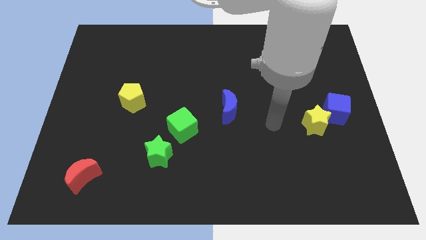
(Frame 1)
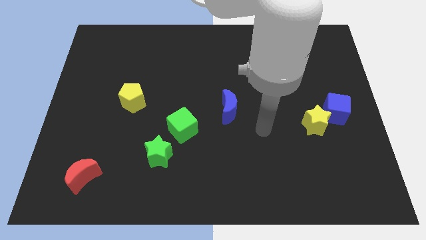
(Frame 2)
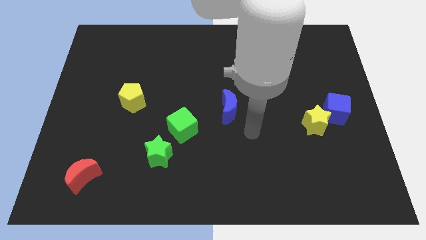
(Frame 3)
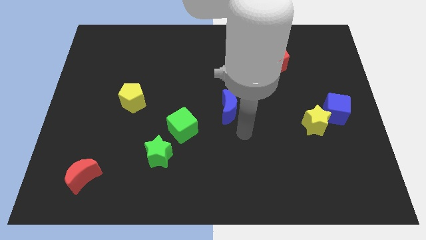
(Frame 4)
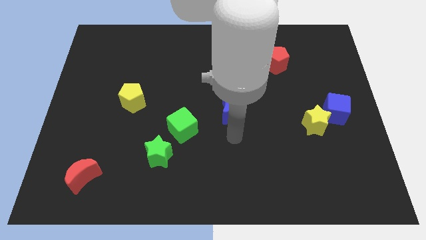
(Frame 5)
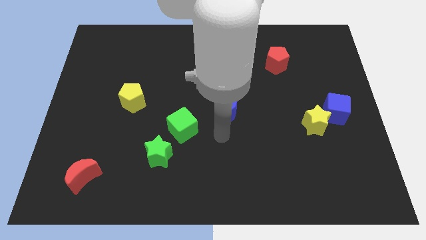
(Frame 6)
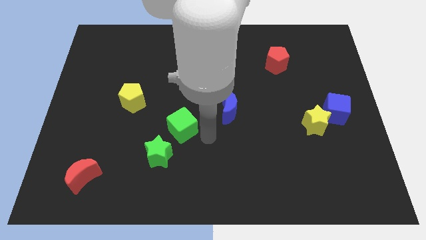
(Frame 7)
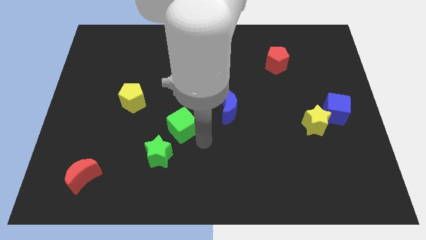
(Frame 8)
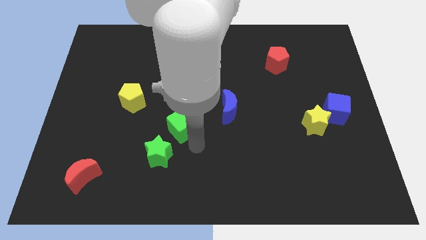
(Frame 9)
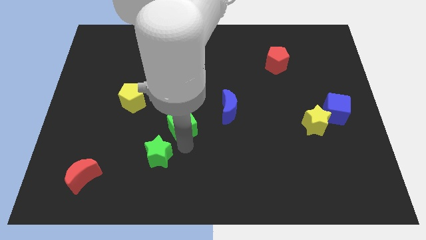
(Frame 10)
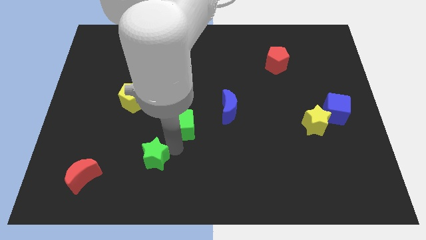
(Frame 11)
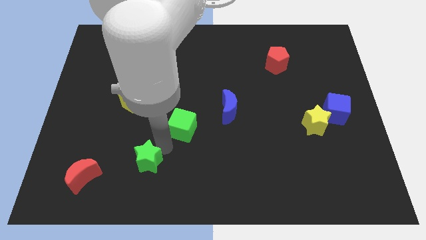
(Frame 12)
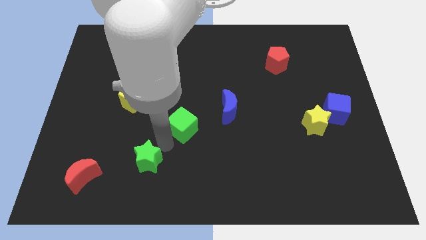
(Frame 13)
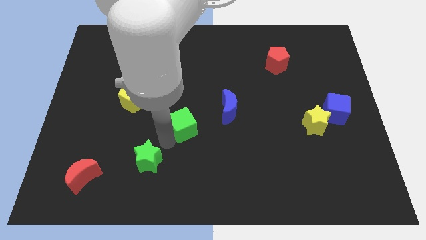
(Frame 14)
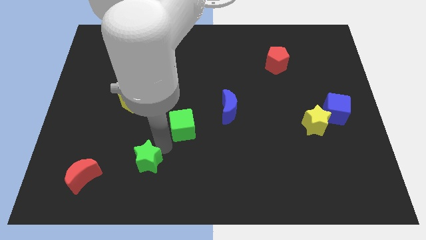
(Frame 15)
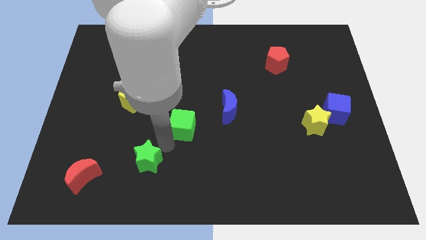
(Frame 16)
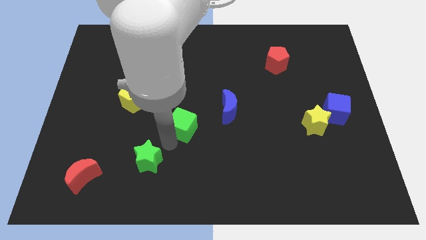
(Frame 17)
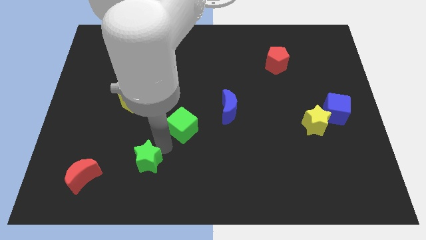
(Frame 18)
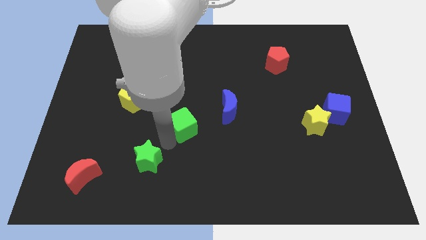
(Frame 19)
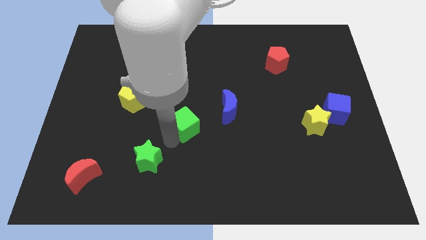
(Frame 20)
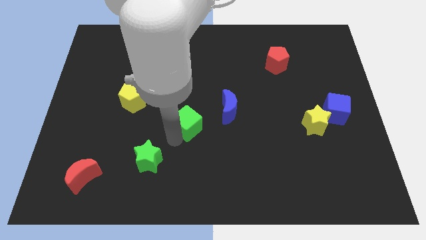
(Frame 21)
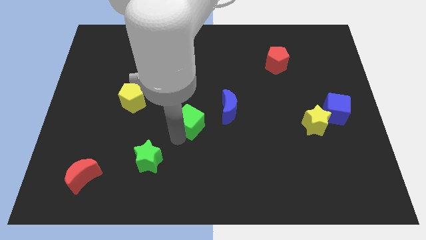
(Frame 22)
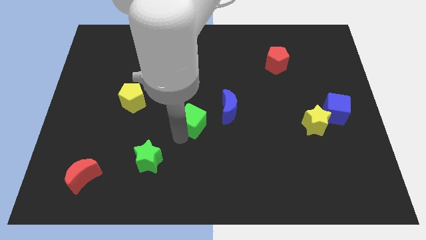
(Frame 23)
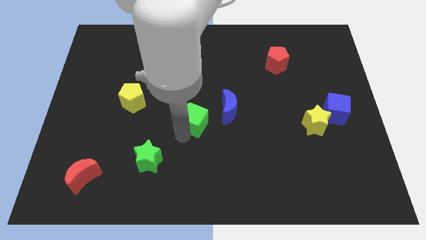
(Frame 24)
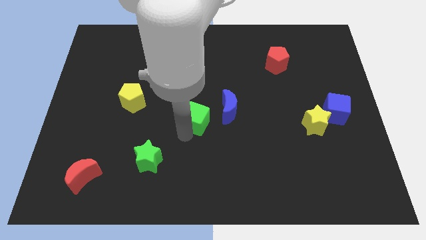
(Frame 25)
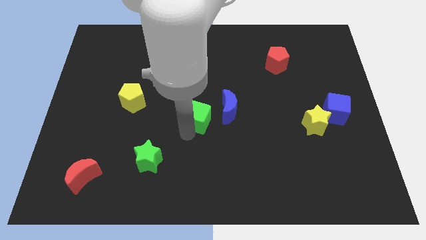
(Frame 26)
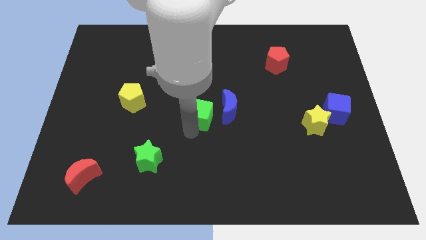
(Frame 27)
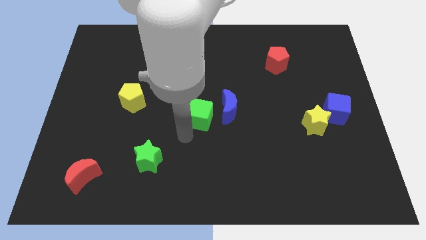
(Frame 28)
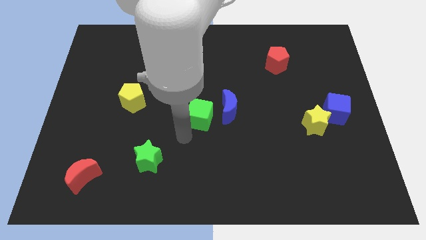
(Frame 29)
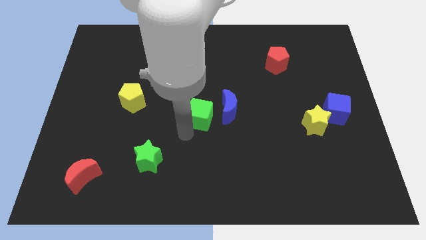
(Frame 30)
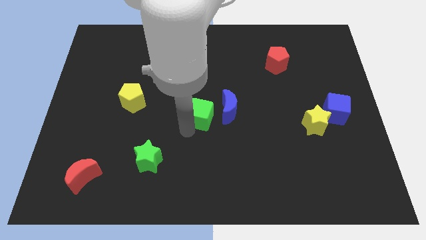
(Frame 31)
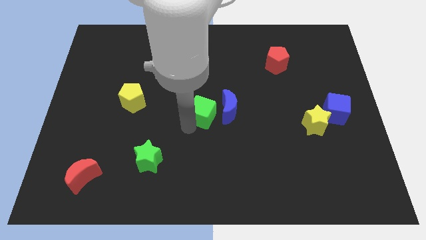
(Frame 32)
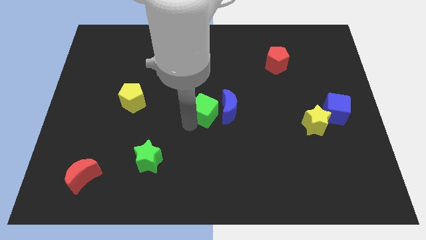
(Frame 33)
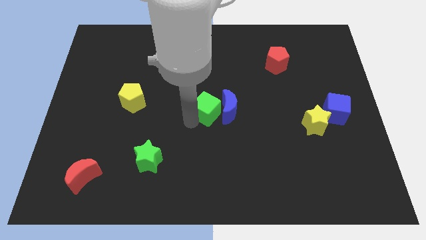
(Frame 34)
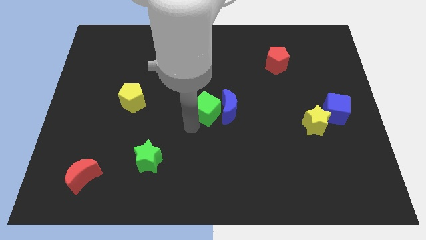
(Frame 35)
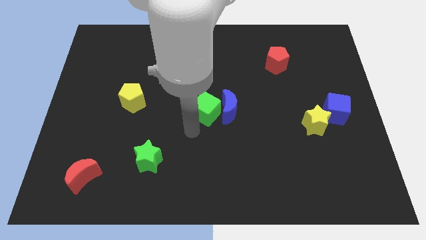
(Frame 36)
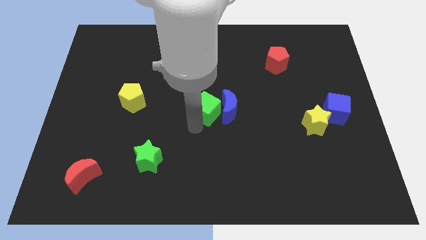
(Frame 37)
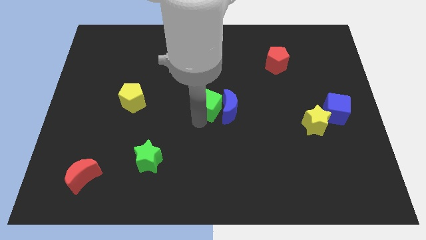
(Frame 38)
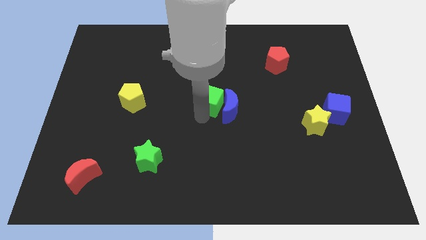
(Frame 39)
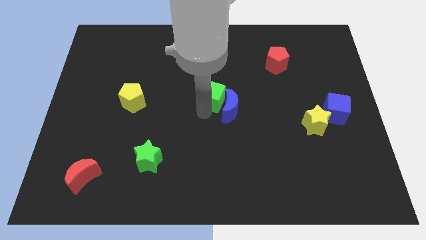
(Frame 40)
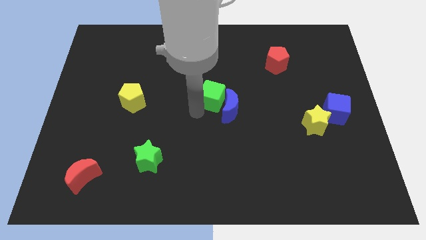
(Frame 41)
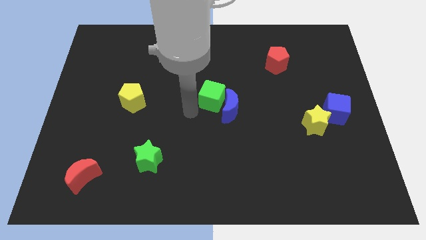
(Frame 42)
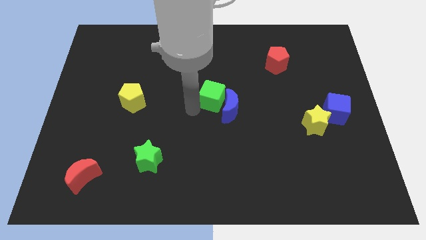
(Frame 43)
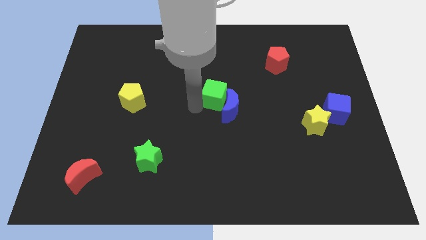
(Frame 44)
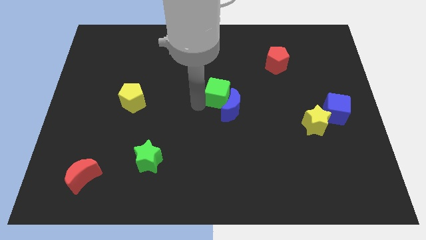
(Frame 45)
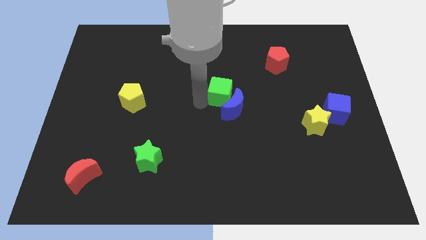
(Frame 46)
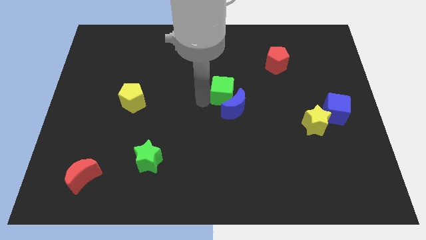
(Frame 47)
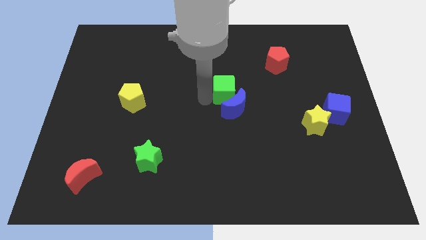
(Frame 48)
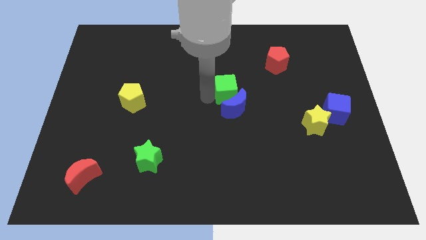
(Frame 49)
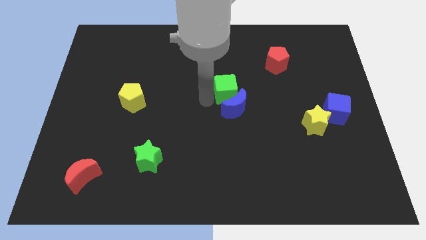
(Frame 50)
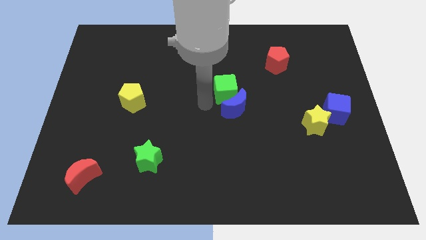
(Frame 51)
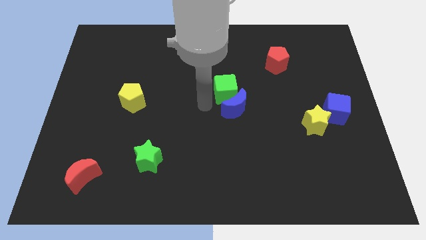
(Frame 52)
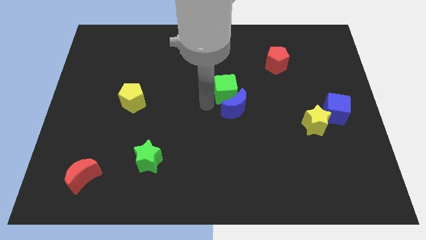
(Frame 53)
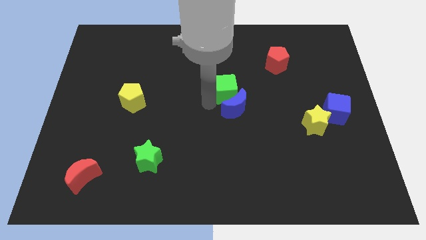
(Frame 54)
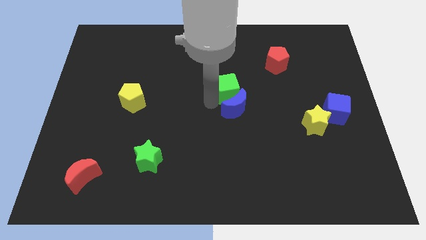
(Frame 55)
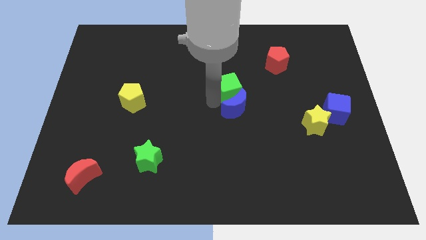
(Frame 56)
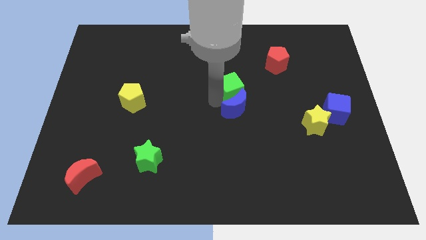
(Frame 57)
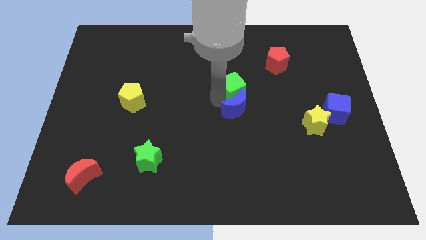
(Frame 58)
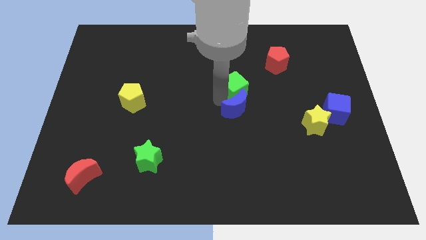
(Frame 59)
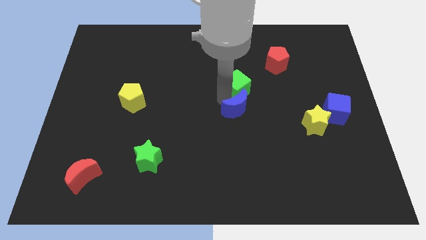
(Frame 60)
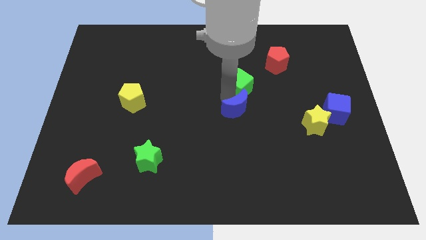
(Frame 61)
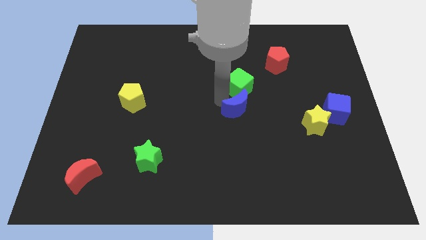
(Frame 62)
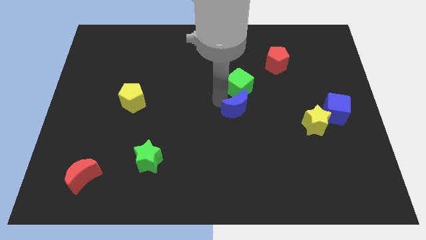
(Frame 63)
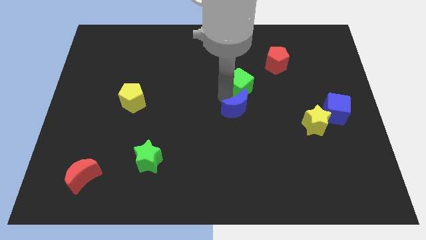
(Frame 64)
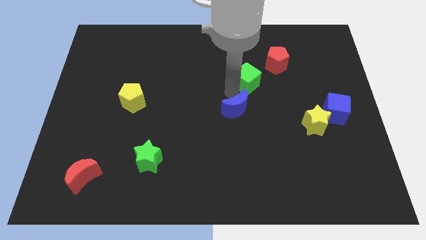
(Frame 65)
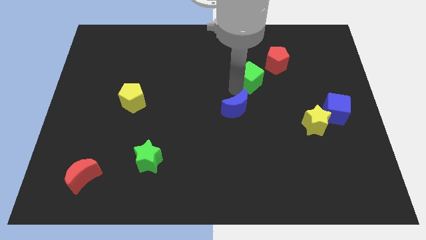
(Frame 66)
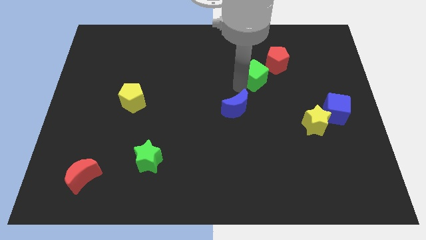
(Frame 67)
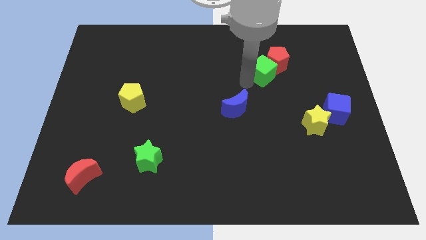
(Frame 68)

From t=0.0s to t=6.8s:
slide the green cube to the red pentagon

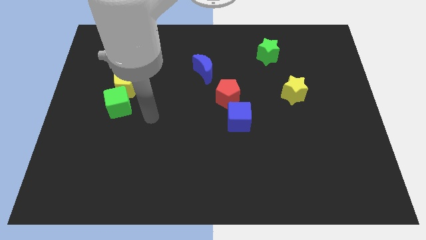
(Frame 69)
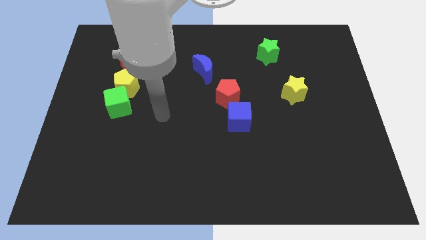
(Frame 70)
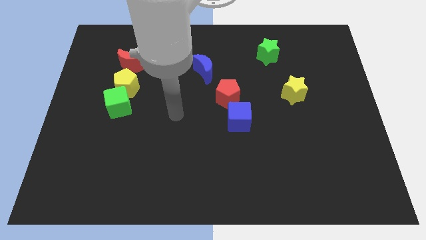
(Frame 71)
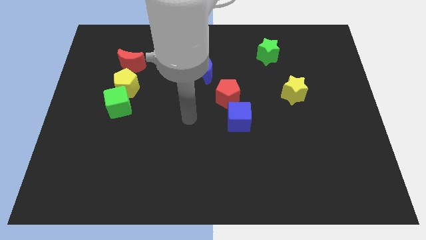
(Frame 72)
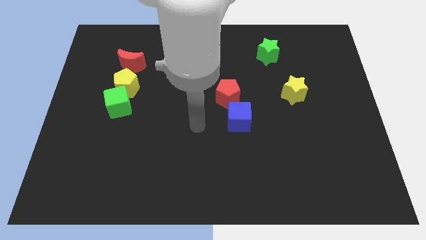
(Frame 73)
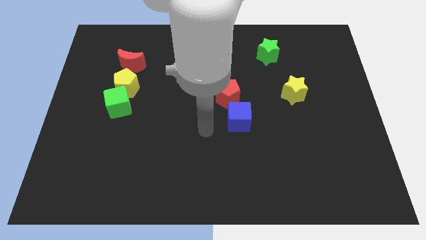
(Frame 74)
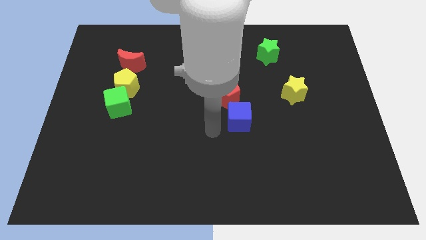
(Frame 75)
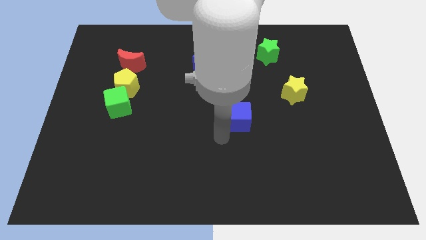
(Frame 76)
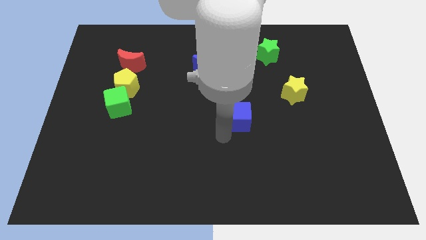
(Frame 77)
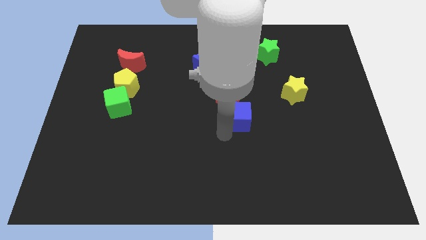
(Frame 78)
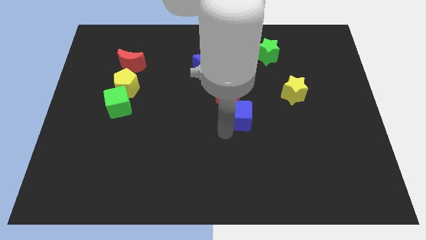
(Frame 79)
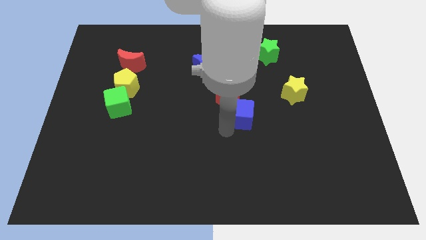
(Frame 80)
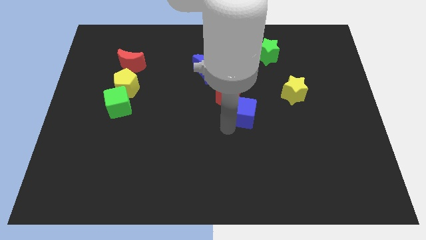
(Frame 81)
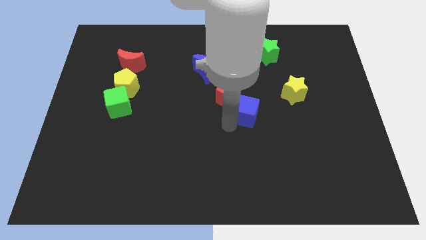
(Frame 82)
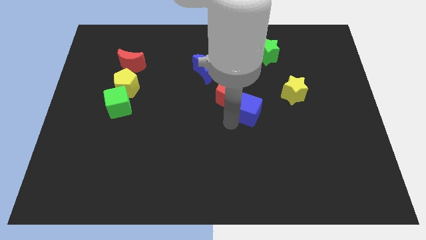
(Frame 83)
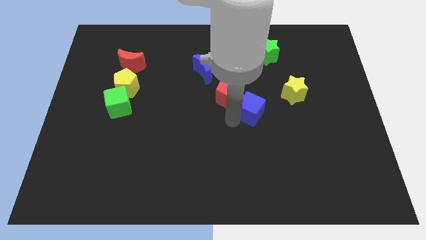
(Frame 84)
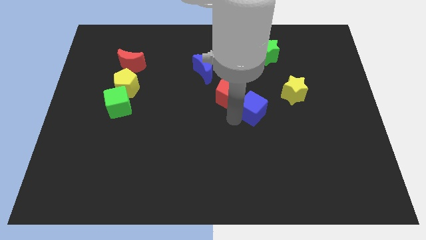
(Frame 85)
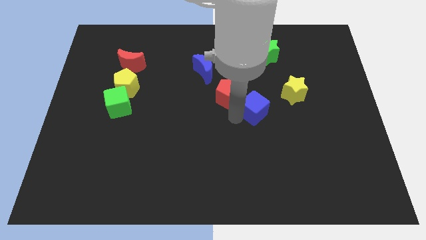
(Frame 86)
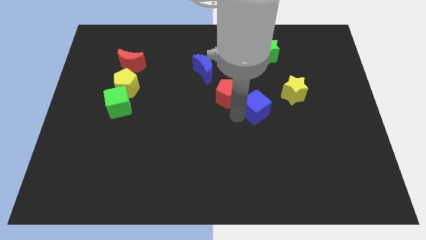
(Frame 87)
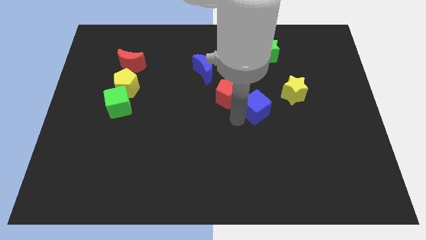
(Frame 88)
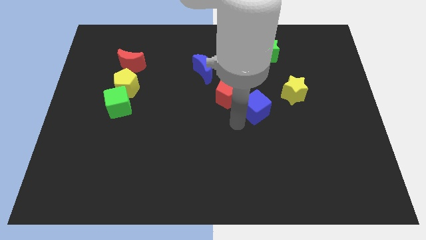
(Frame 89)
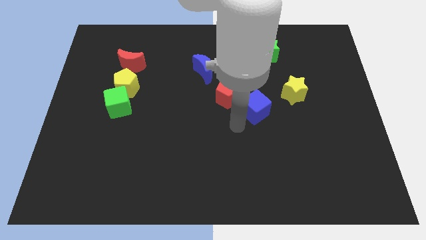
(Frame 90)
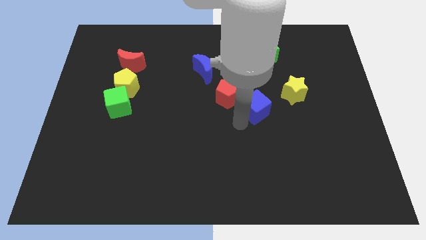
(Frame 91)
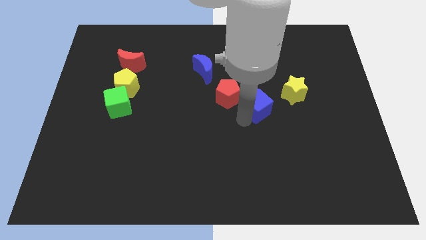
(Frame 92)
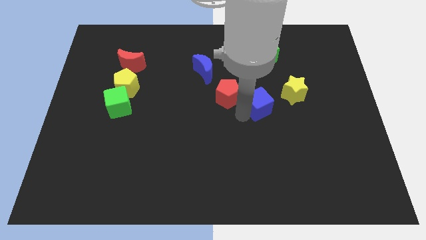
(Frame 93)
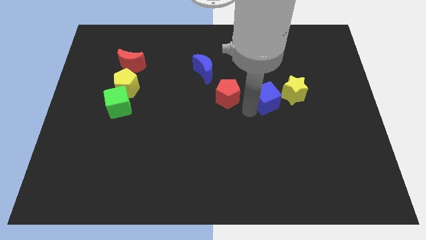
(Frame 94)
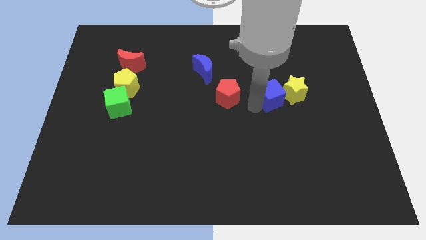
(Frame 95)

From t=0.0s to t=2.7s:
push the blue cube to the yellow star
